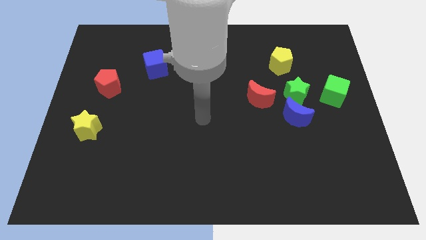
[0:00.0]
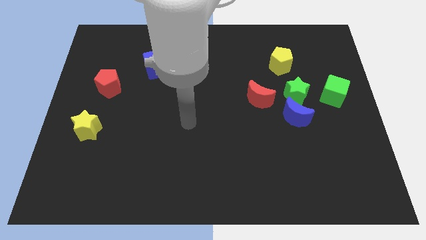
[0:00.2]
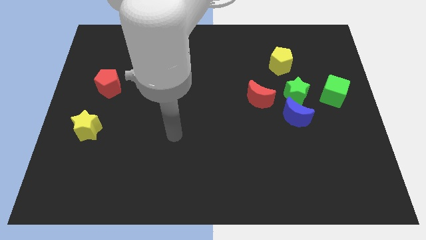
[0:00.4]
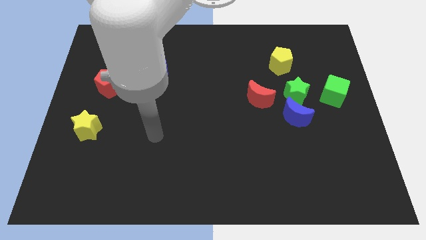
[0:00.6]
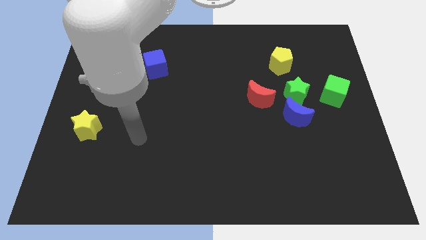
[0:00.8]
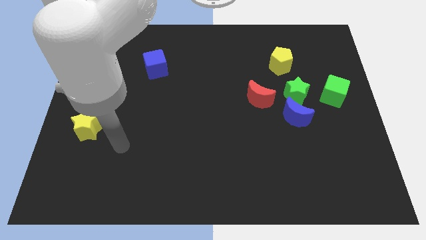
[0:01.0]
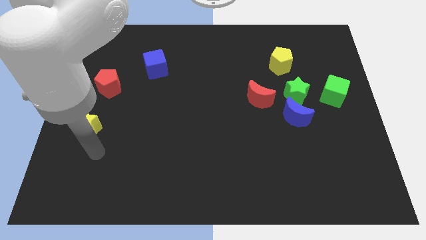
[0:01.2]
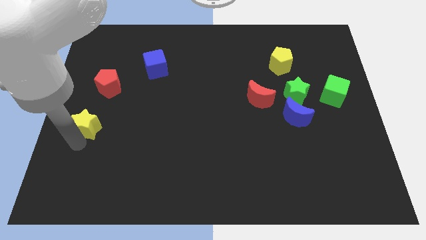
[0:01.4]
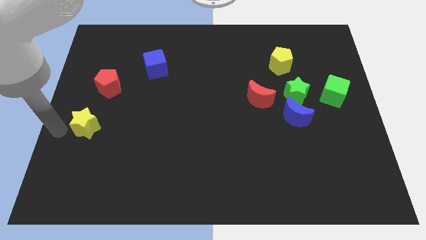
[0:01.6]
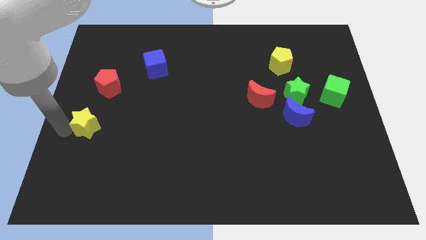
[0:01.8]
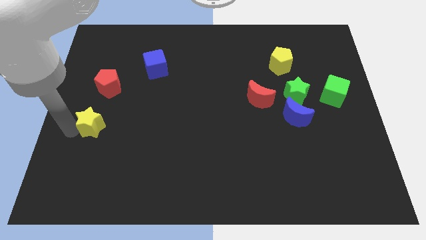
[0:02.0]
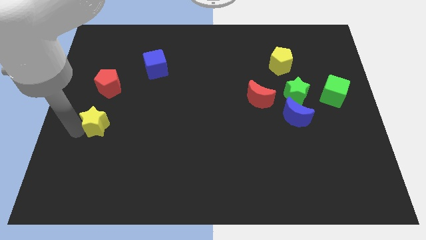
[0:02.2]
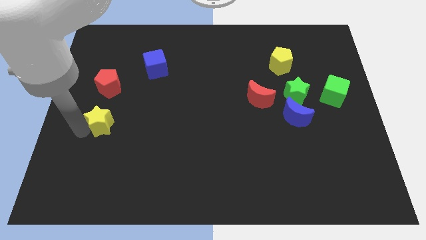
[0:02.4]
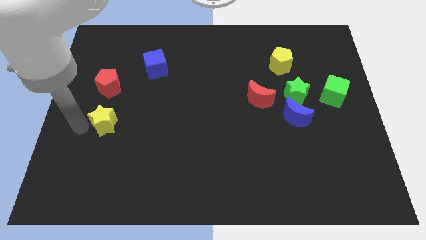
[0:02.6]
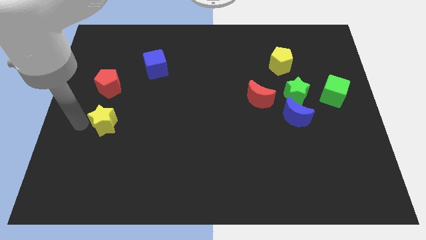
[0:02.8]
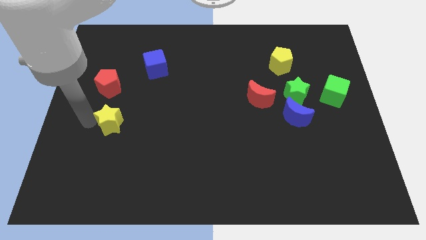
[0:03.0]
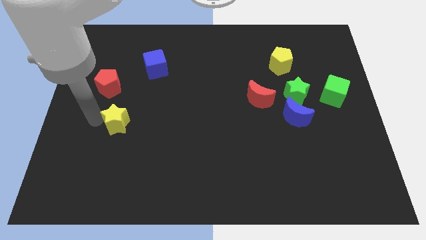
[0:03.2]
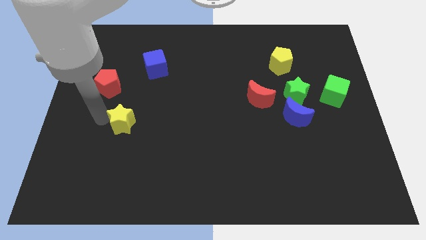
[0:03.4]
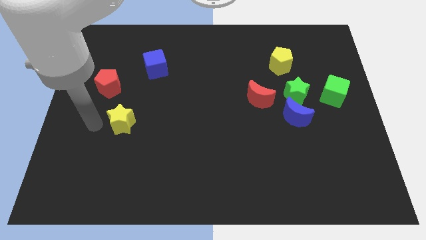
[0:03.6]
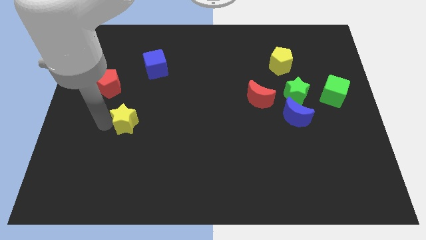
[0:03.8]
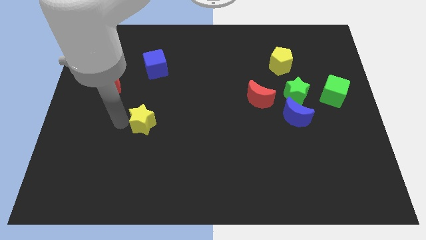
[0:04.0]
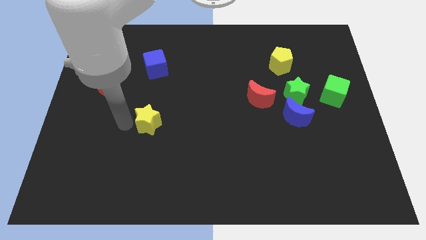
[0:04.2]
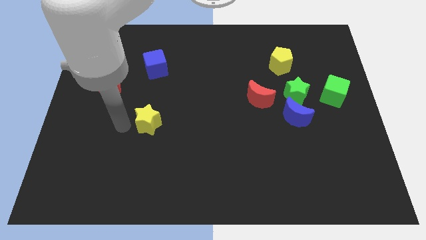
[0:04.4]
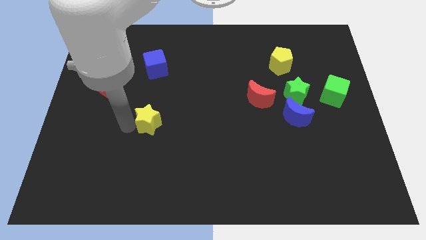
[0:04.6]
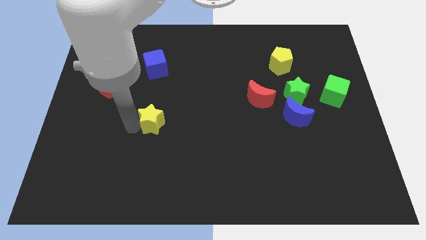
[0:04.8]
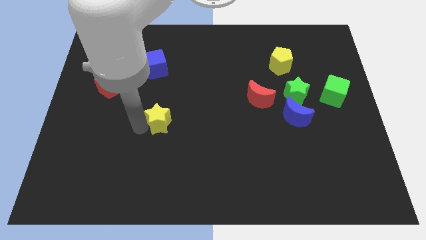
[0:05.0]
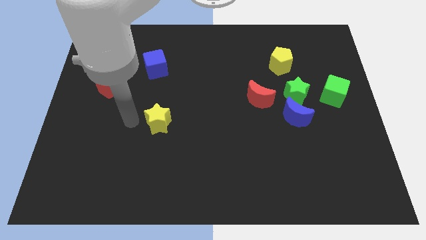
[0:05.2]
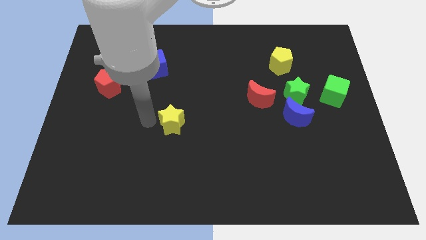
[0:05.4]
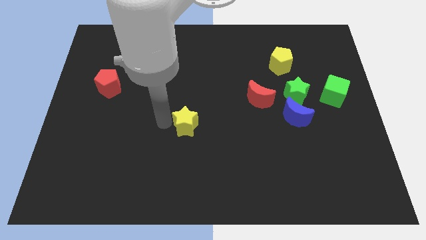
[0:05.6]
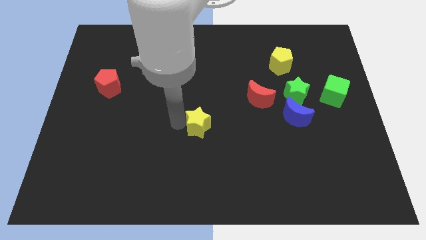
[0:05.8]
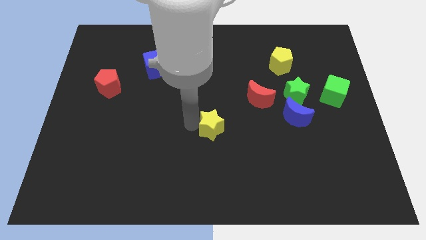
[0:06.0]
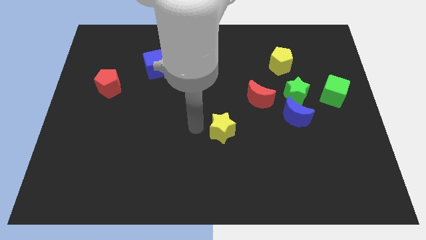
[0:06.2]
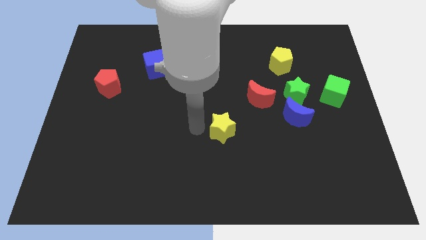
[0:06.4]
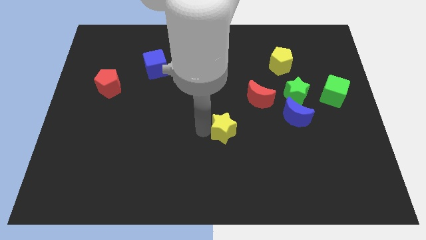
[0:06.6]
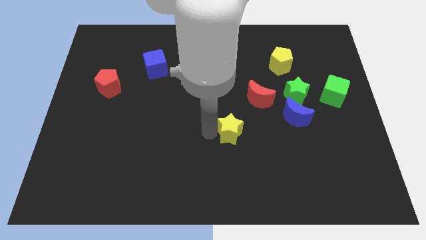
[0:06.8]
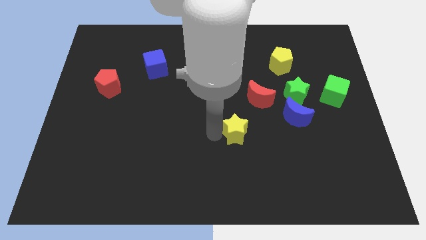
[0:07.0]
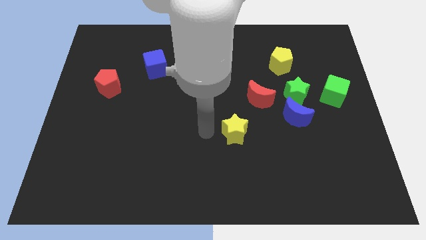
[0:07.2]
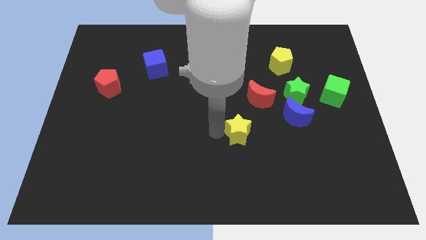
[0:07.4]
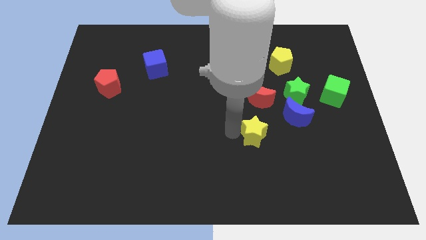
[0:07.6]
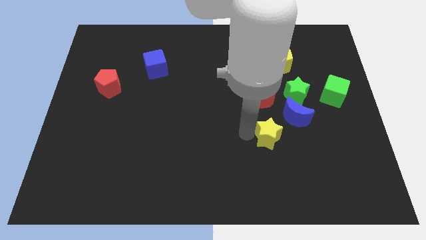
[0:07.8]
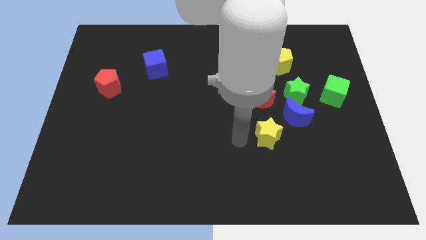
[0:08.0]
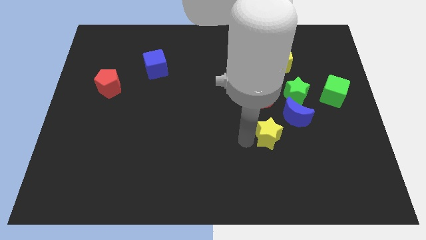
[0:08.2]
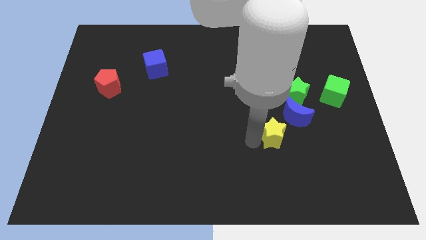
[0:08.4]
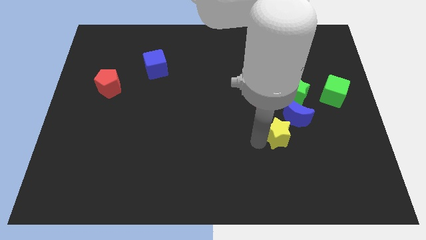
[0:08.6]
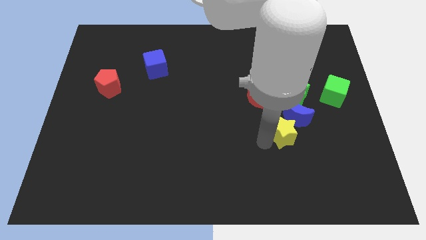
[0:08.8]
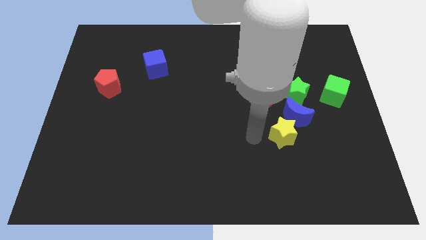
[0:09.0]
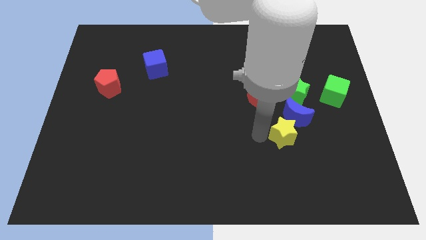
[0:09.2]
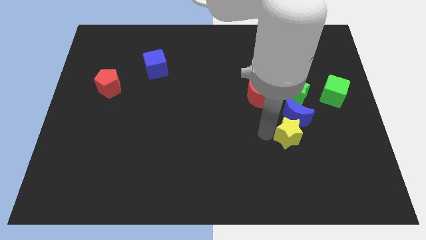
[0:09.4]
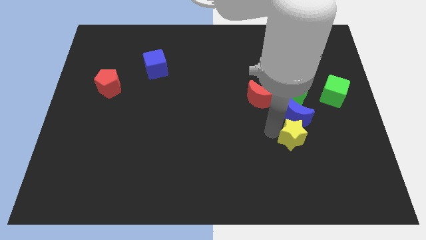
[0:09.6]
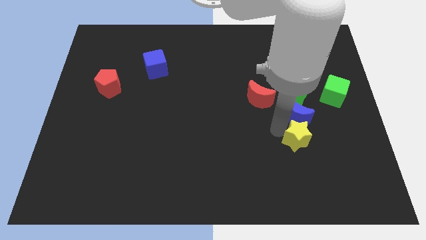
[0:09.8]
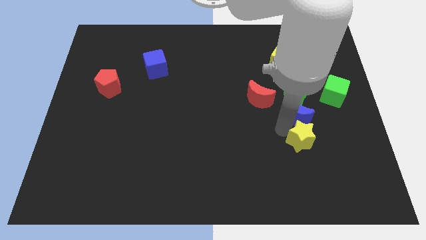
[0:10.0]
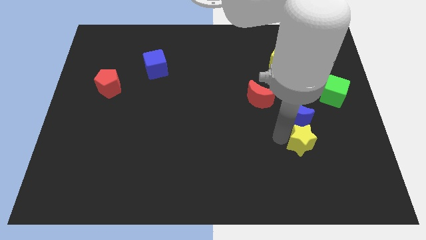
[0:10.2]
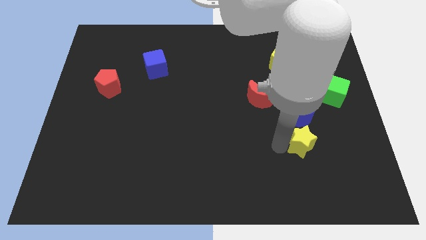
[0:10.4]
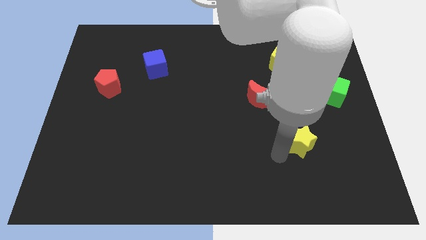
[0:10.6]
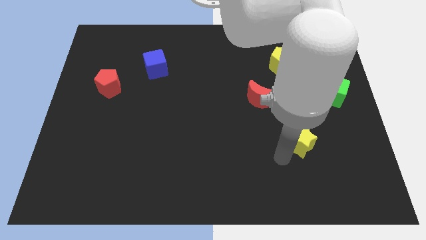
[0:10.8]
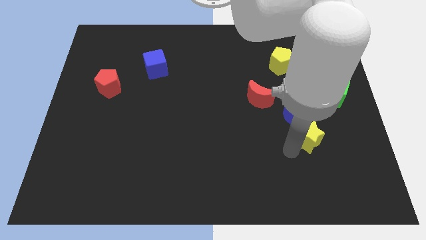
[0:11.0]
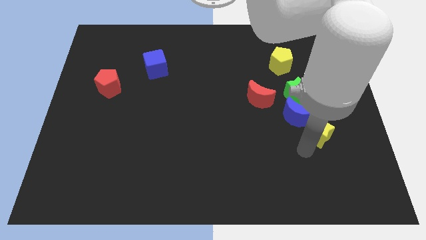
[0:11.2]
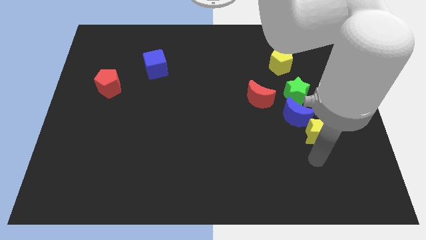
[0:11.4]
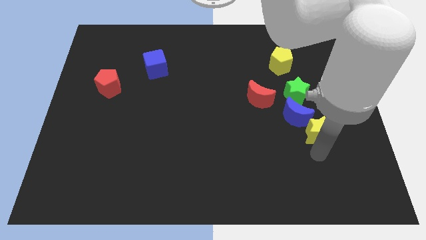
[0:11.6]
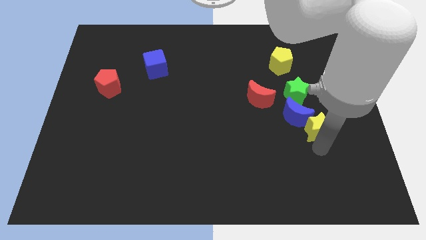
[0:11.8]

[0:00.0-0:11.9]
put the yellow star to the bottom left of the green cube

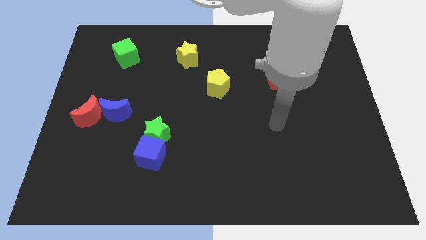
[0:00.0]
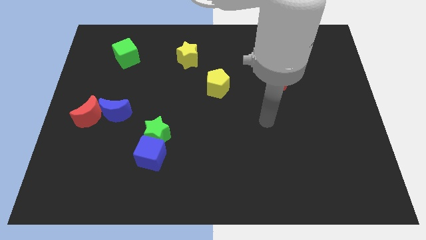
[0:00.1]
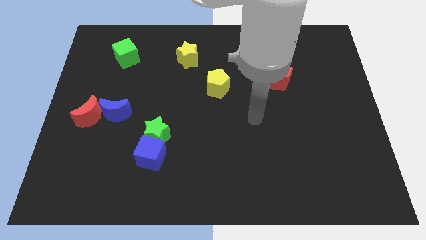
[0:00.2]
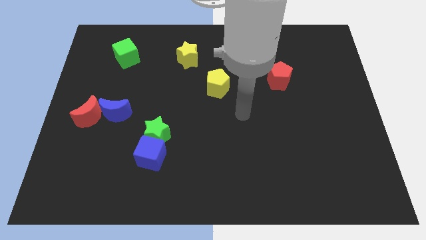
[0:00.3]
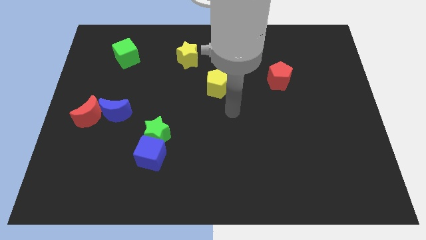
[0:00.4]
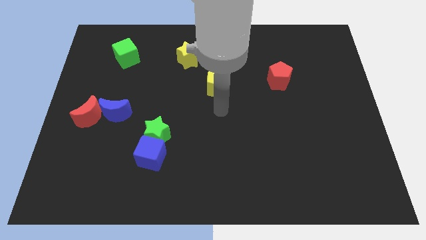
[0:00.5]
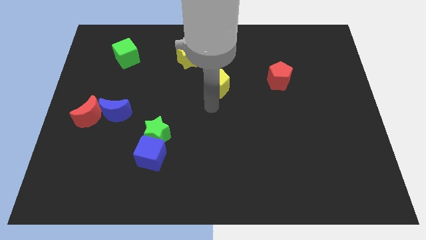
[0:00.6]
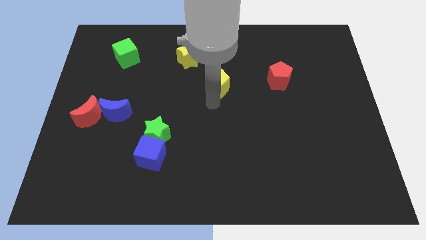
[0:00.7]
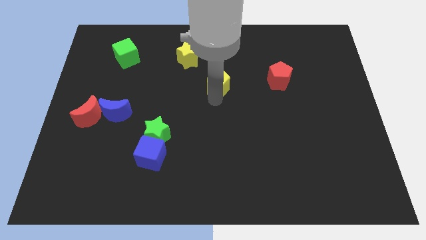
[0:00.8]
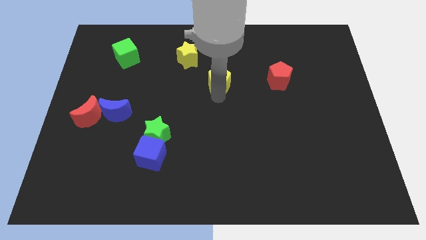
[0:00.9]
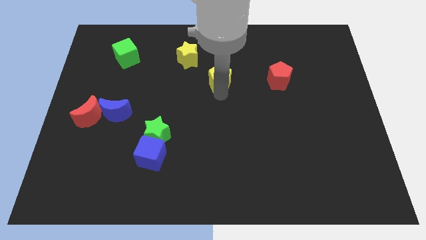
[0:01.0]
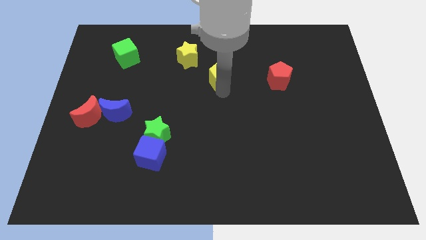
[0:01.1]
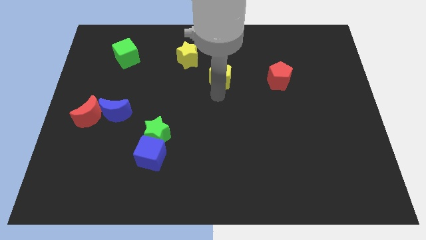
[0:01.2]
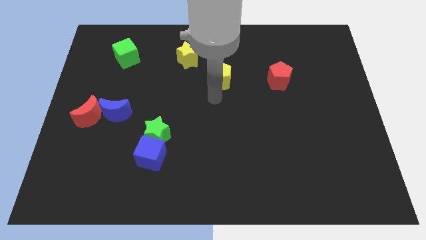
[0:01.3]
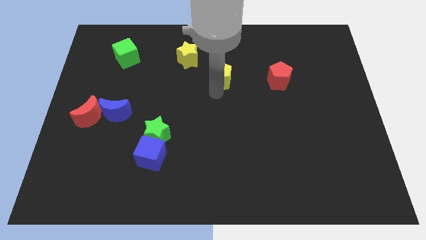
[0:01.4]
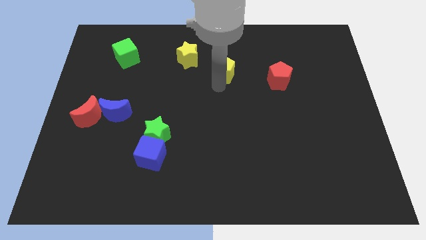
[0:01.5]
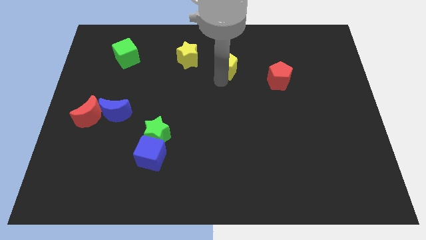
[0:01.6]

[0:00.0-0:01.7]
slide the yellow pentagon to the right of the yellow star

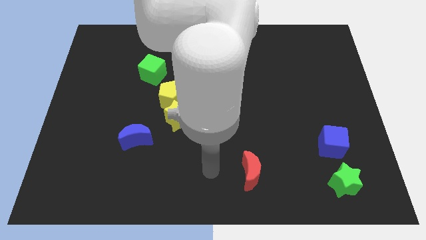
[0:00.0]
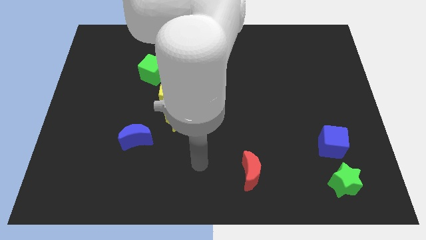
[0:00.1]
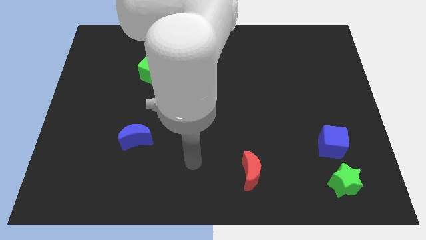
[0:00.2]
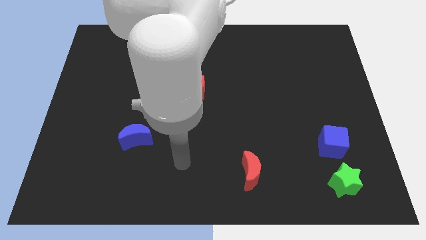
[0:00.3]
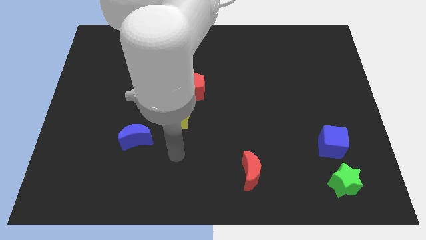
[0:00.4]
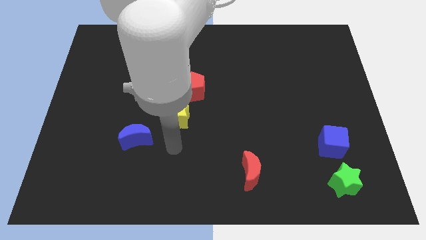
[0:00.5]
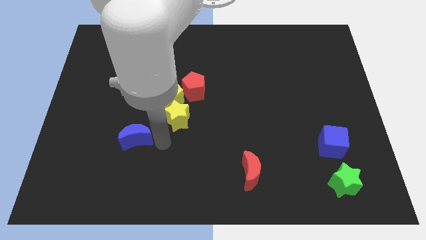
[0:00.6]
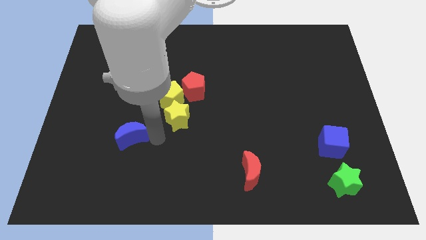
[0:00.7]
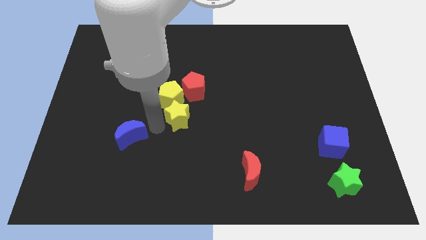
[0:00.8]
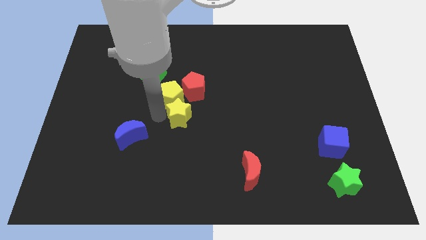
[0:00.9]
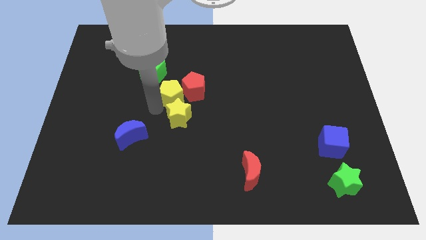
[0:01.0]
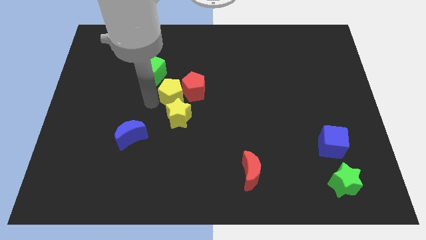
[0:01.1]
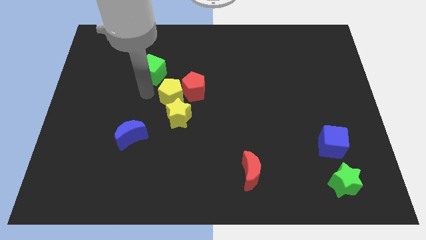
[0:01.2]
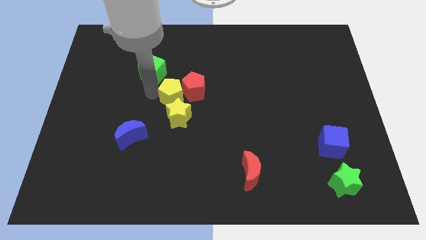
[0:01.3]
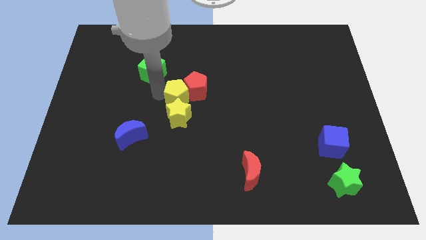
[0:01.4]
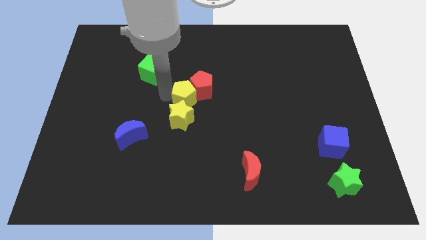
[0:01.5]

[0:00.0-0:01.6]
move the yellow pentagon diagonally up and to the right of the yellow star
